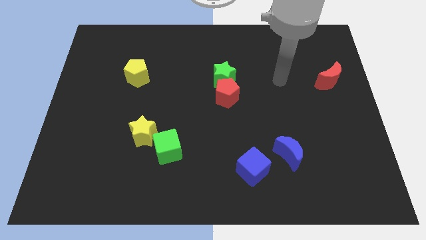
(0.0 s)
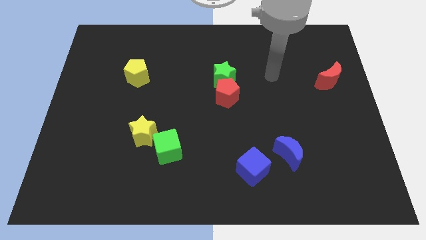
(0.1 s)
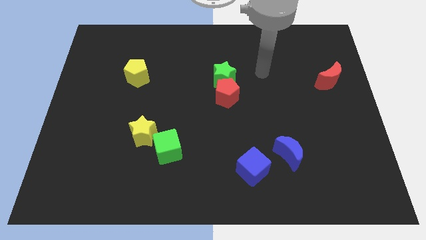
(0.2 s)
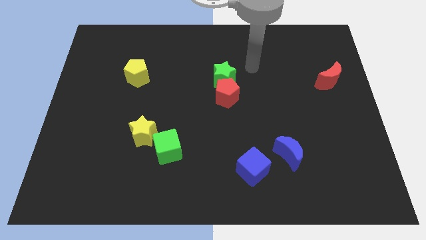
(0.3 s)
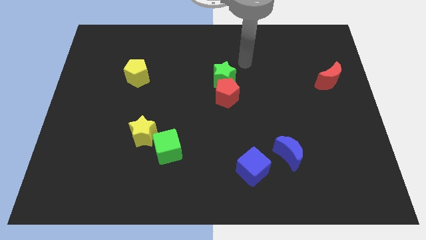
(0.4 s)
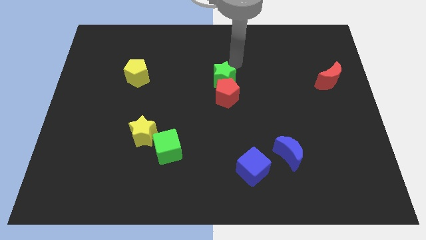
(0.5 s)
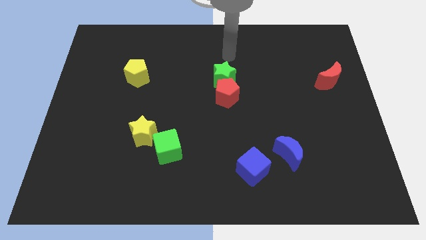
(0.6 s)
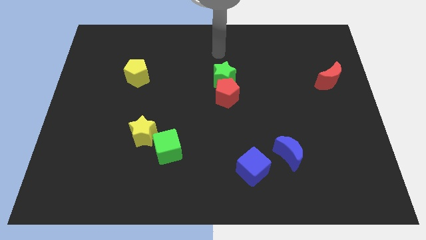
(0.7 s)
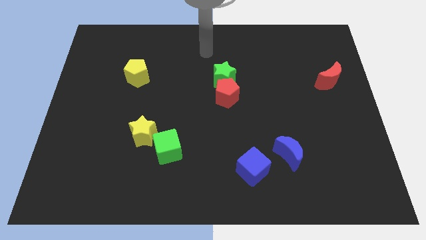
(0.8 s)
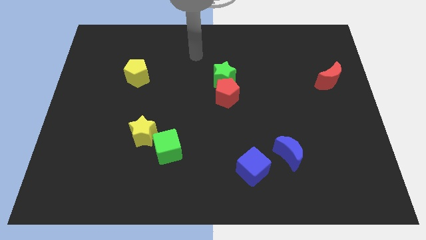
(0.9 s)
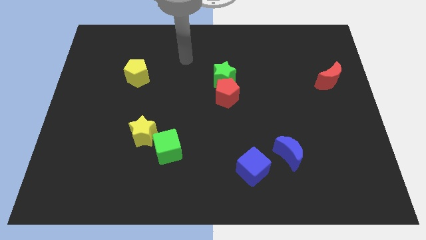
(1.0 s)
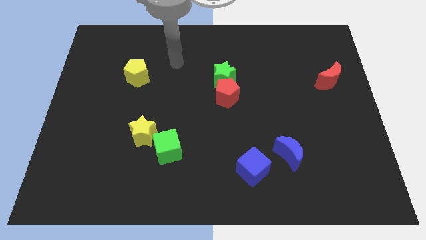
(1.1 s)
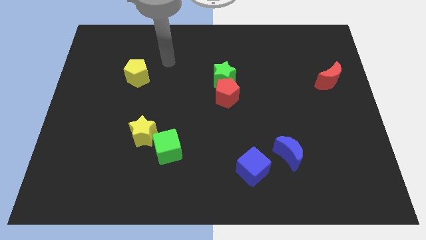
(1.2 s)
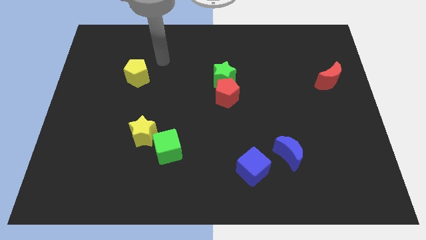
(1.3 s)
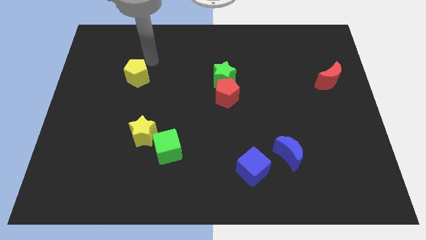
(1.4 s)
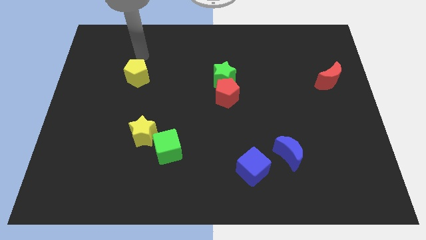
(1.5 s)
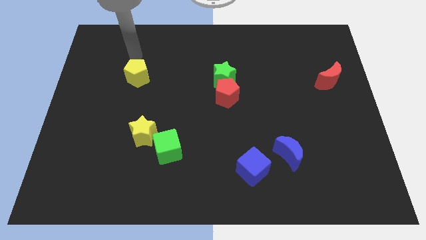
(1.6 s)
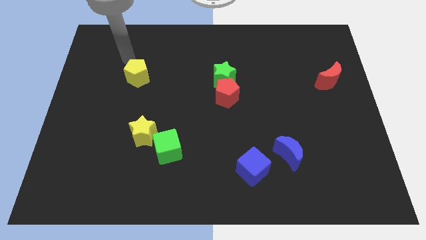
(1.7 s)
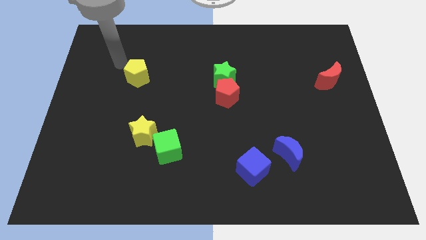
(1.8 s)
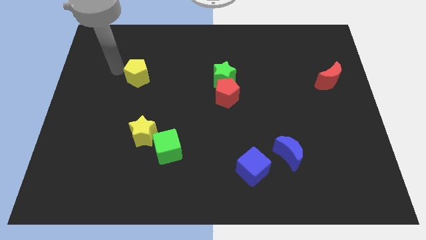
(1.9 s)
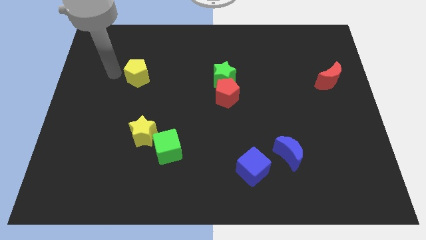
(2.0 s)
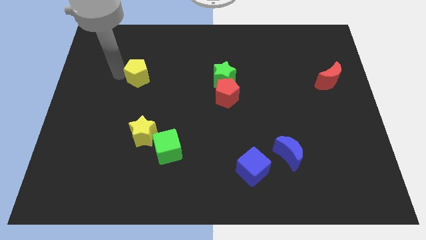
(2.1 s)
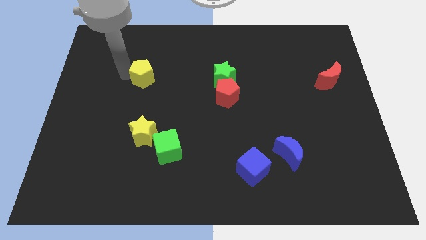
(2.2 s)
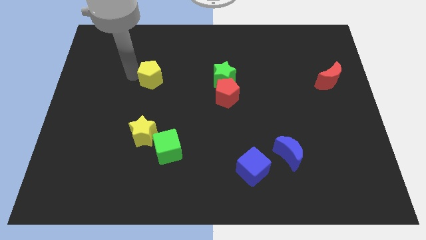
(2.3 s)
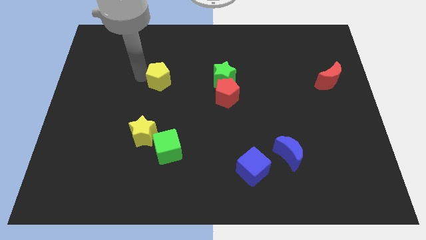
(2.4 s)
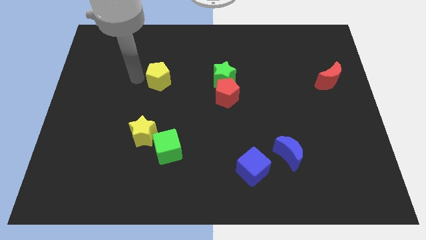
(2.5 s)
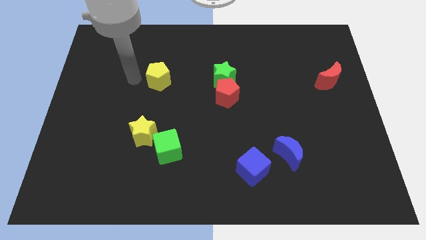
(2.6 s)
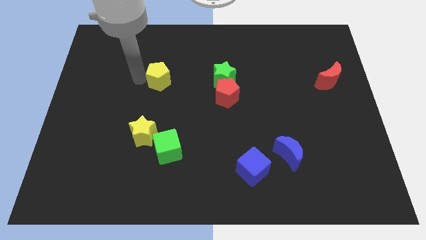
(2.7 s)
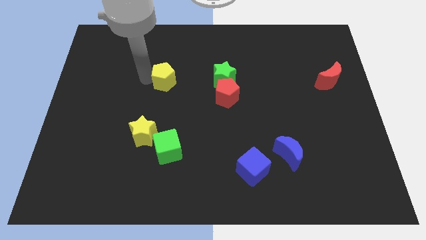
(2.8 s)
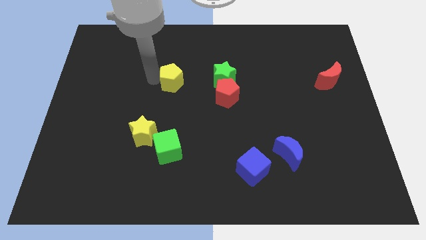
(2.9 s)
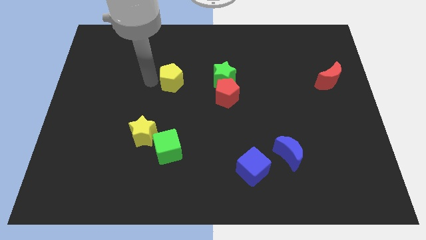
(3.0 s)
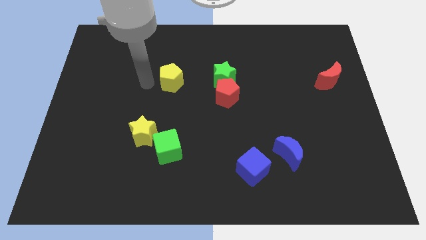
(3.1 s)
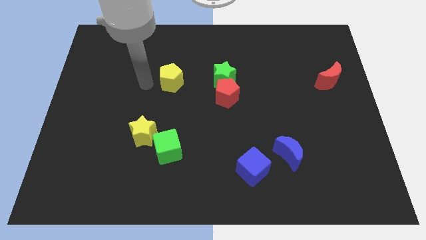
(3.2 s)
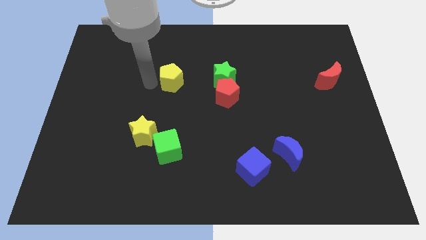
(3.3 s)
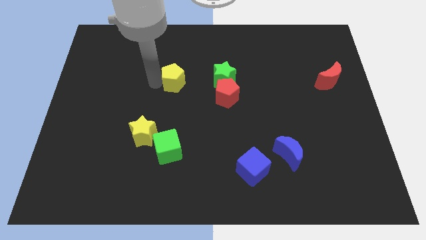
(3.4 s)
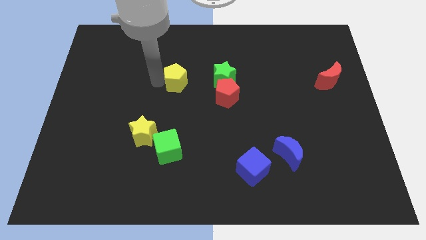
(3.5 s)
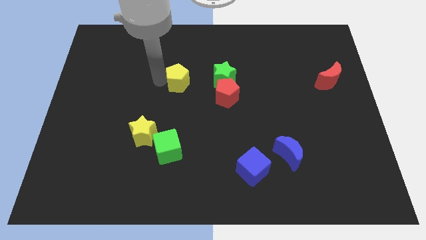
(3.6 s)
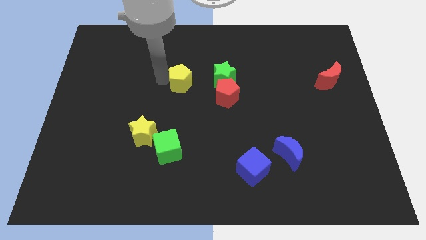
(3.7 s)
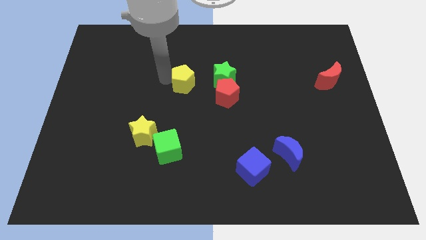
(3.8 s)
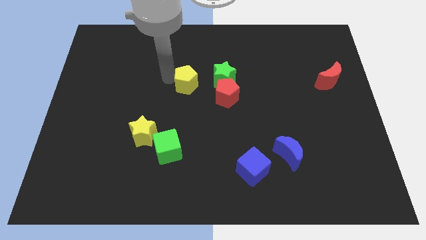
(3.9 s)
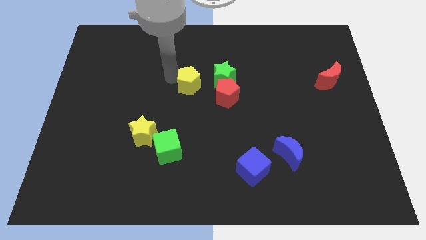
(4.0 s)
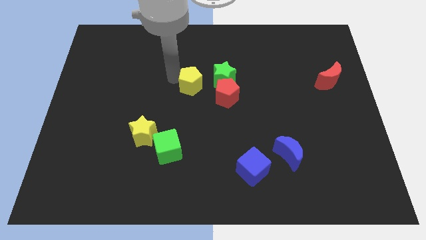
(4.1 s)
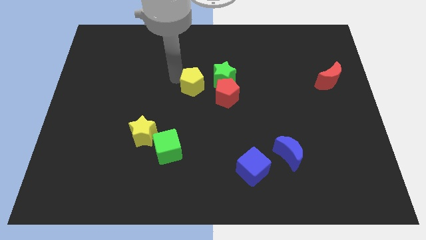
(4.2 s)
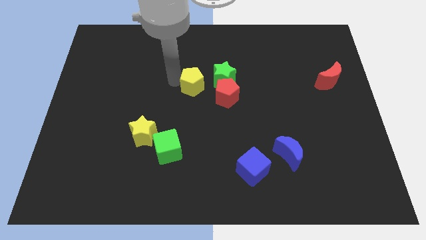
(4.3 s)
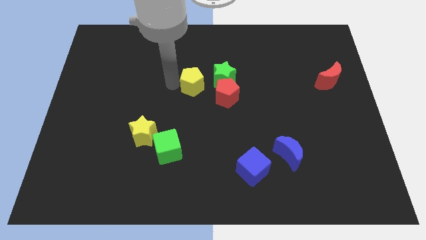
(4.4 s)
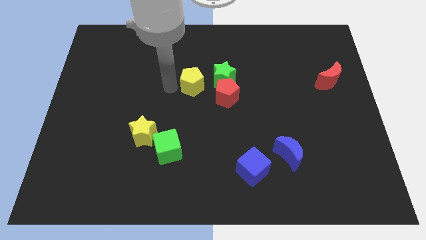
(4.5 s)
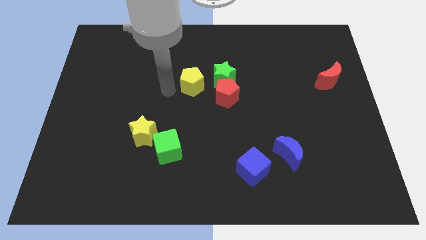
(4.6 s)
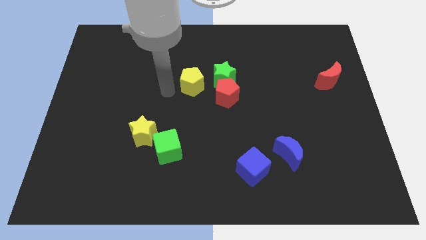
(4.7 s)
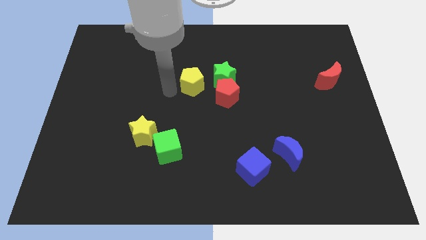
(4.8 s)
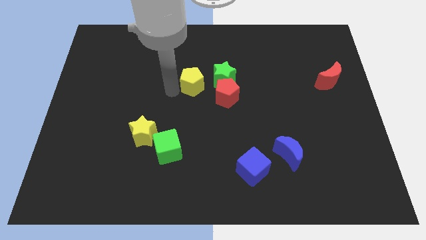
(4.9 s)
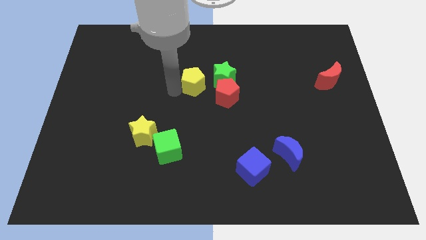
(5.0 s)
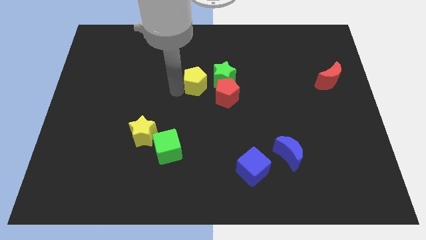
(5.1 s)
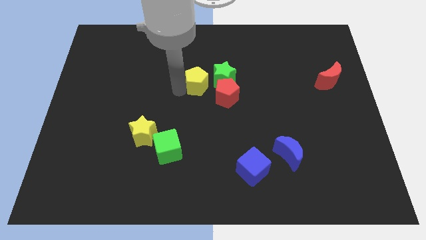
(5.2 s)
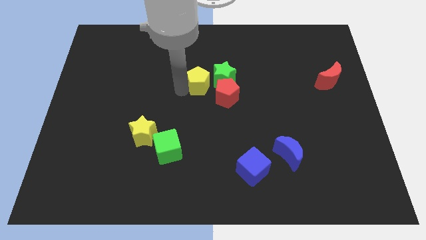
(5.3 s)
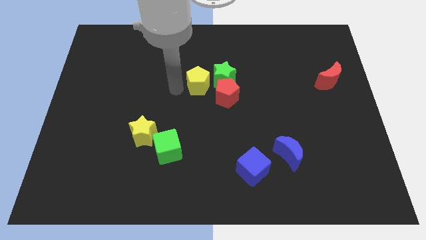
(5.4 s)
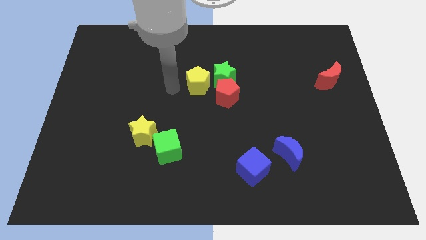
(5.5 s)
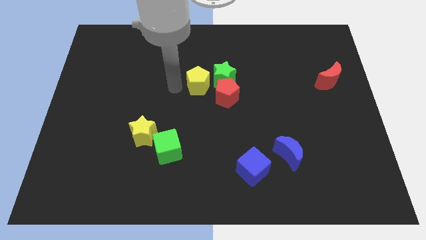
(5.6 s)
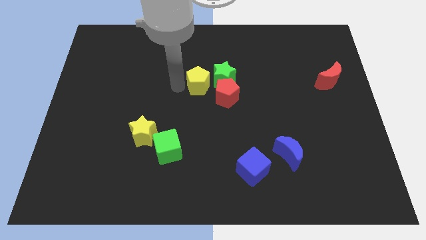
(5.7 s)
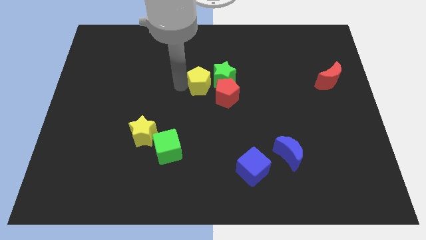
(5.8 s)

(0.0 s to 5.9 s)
slide the yellow pentagon to the green star

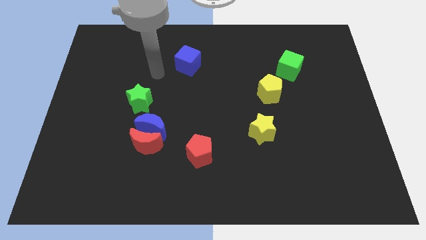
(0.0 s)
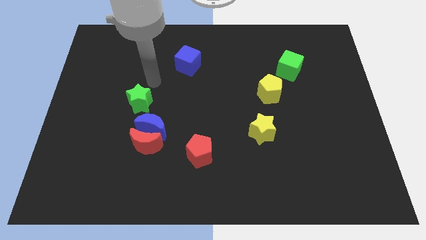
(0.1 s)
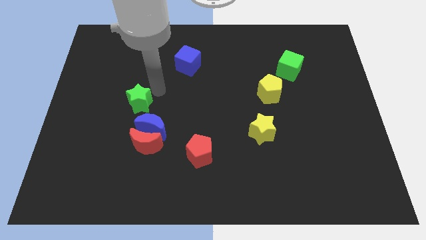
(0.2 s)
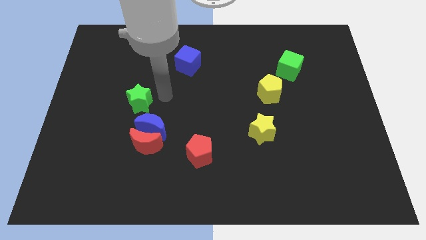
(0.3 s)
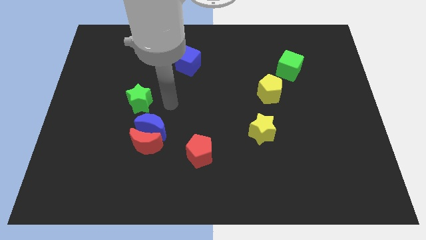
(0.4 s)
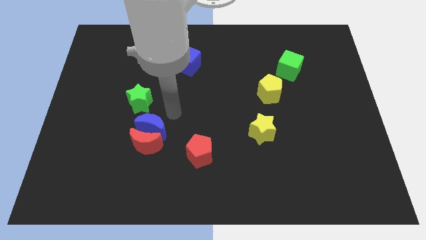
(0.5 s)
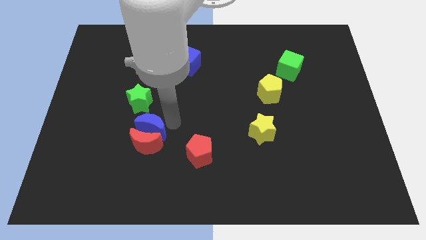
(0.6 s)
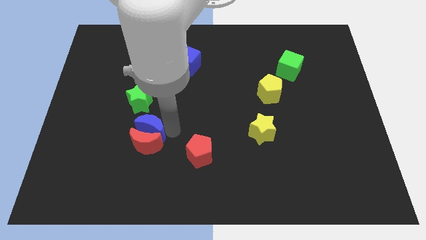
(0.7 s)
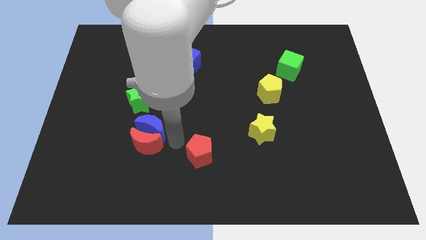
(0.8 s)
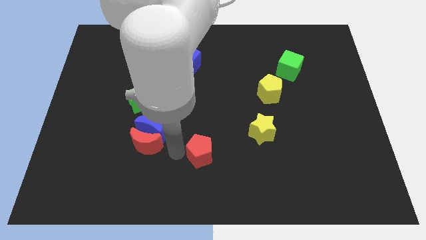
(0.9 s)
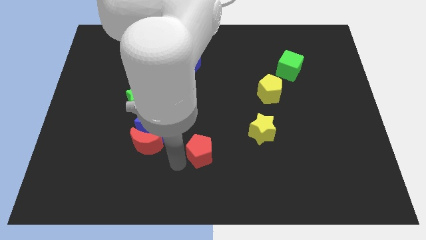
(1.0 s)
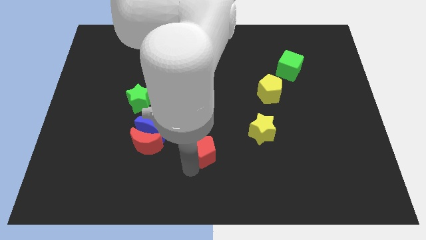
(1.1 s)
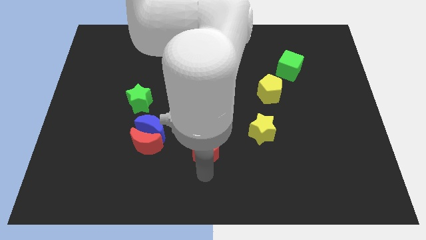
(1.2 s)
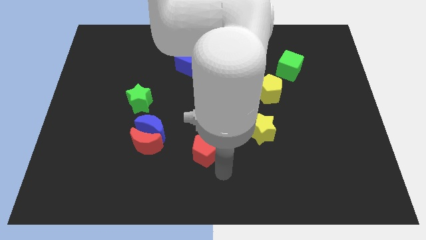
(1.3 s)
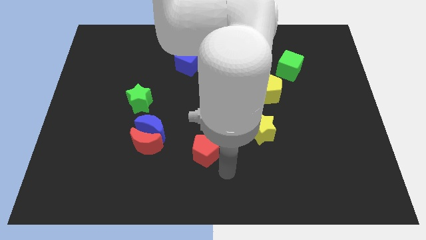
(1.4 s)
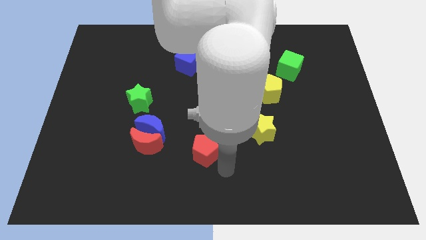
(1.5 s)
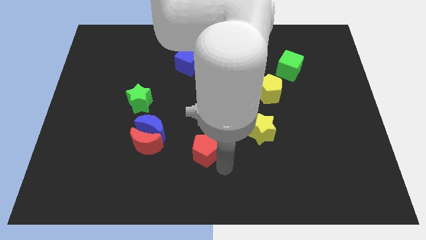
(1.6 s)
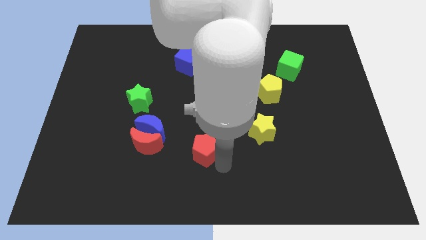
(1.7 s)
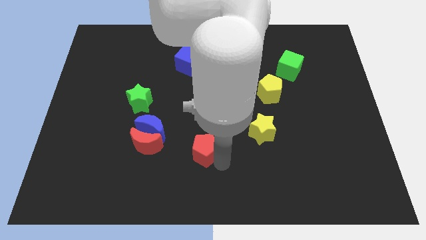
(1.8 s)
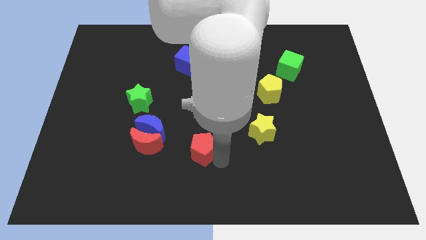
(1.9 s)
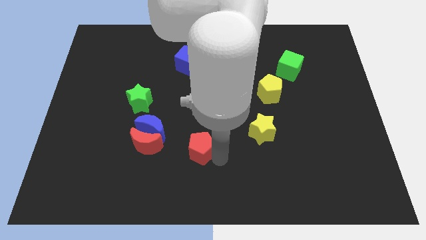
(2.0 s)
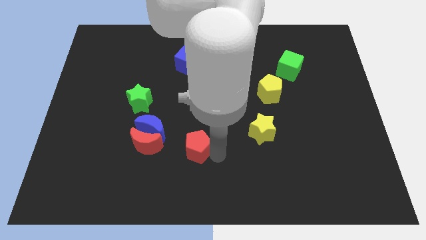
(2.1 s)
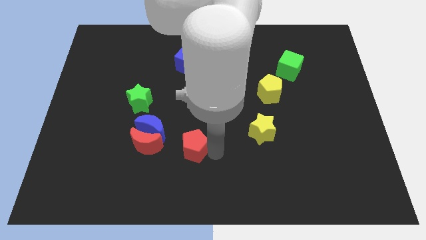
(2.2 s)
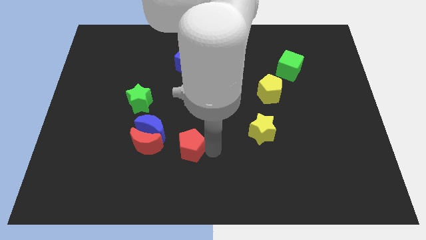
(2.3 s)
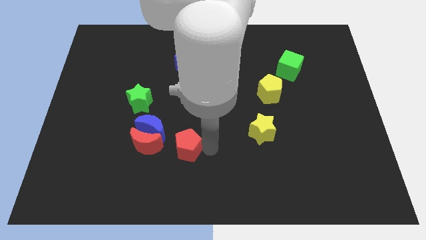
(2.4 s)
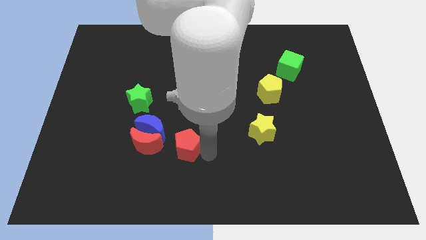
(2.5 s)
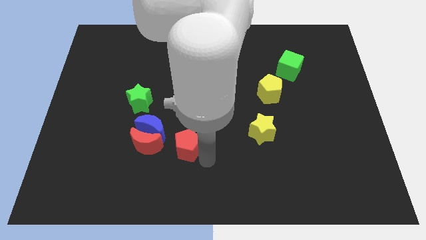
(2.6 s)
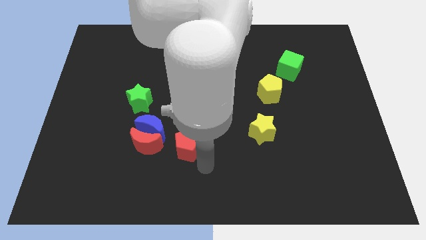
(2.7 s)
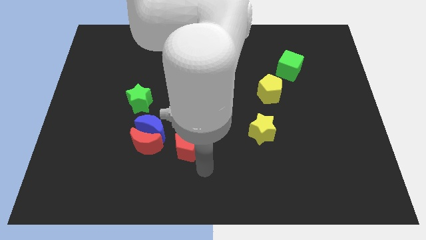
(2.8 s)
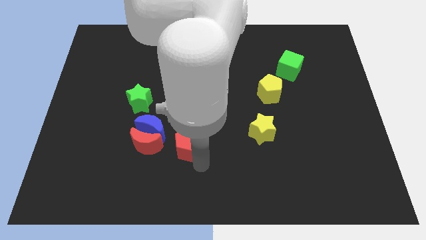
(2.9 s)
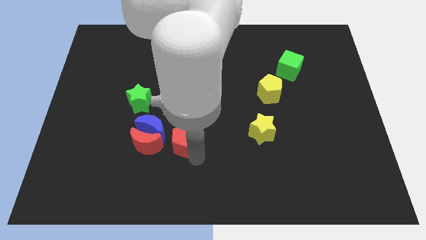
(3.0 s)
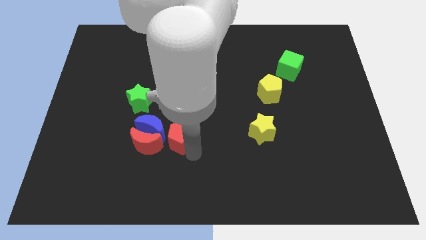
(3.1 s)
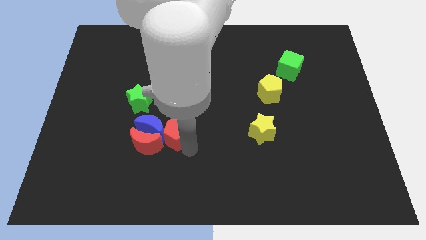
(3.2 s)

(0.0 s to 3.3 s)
slide the red pentagon next to the blue moon
